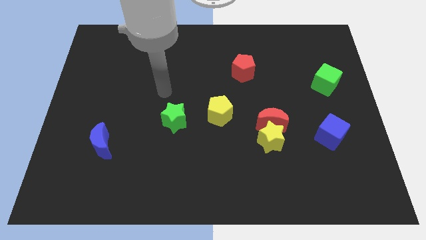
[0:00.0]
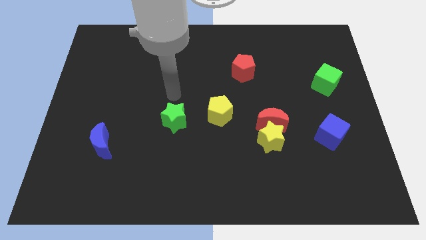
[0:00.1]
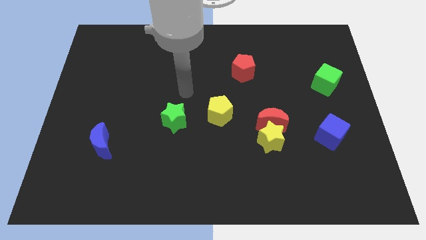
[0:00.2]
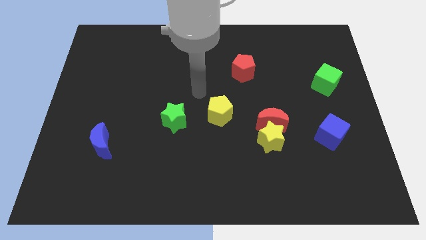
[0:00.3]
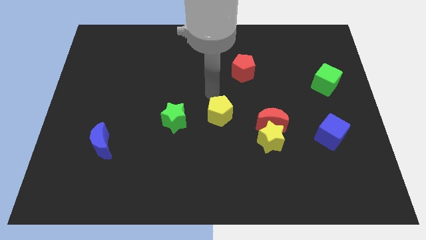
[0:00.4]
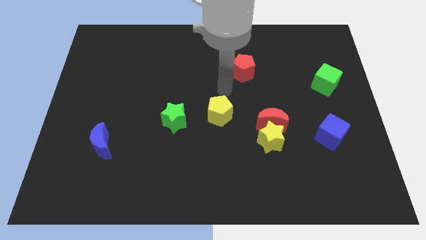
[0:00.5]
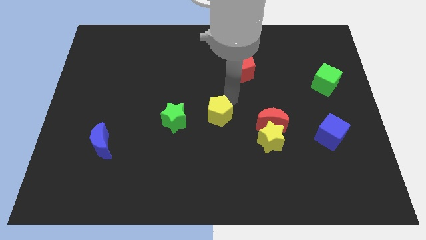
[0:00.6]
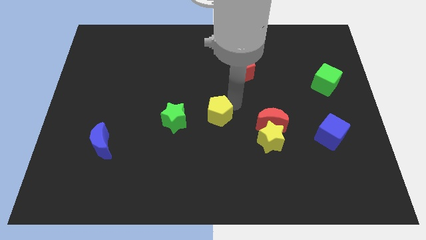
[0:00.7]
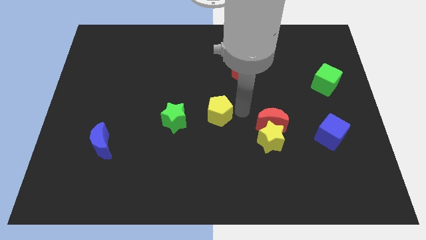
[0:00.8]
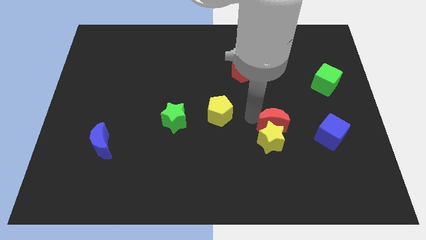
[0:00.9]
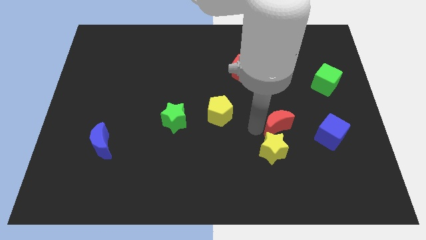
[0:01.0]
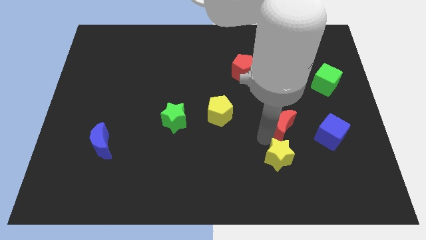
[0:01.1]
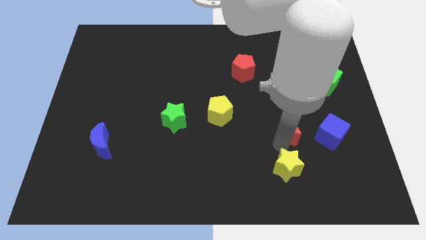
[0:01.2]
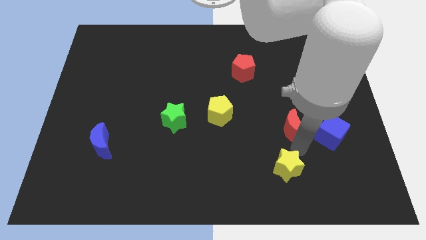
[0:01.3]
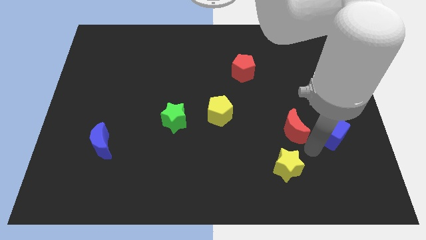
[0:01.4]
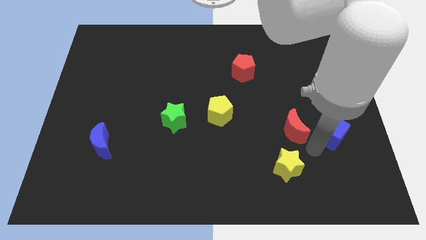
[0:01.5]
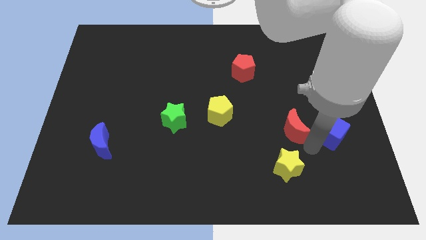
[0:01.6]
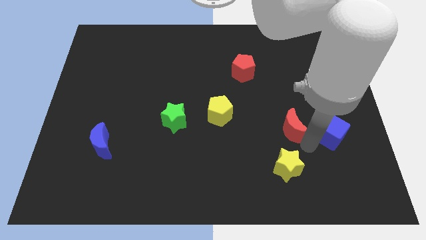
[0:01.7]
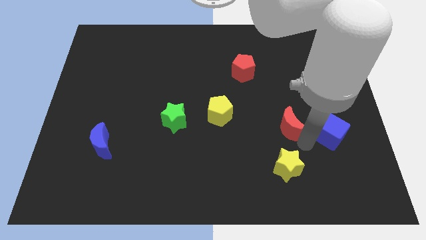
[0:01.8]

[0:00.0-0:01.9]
pull the red moon apart from the yellow star

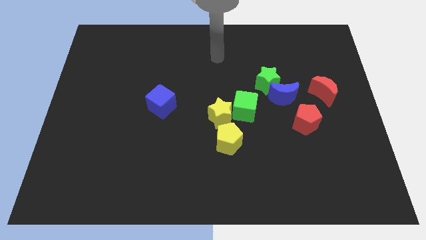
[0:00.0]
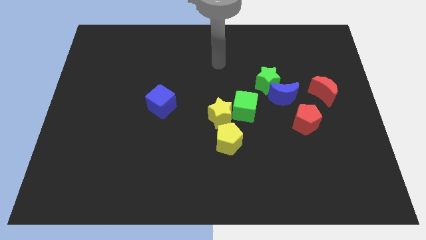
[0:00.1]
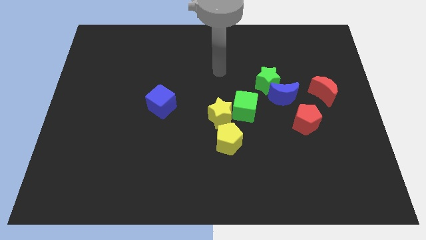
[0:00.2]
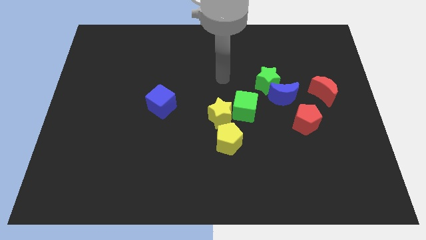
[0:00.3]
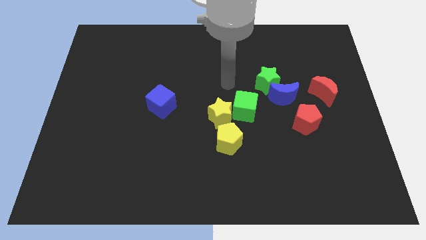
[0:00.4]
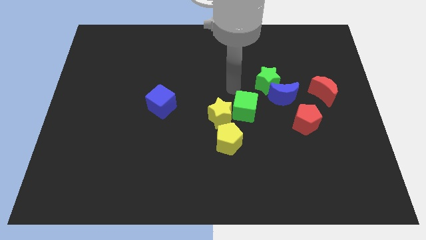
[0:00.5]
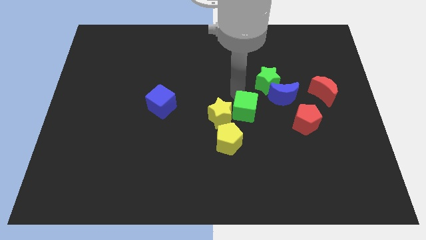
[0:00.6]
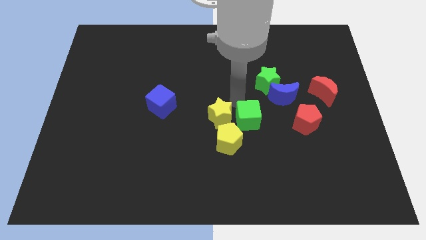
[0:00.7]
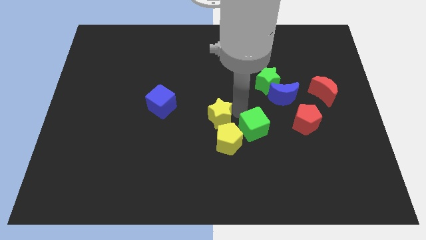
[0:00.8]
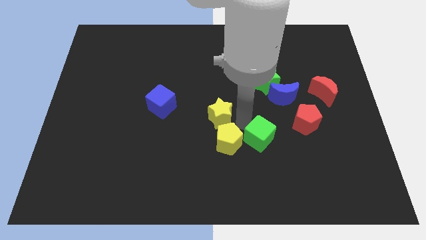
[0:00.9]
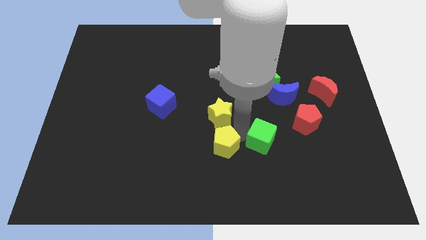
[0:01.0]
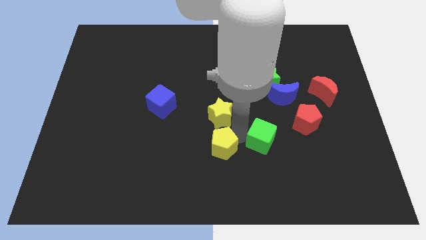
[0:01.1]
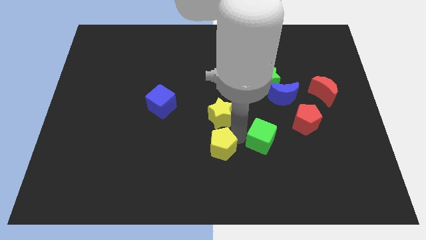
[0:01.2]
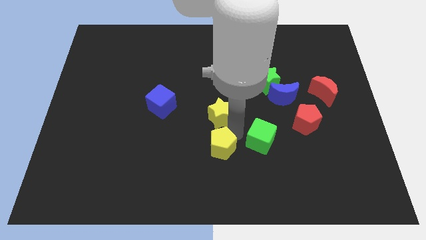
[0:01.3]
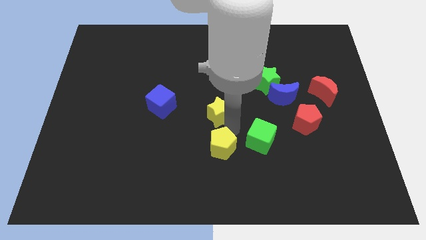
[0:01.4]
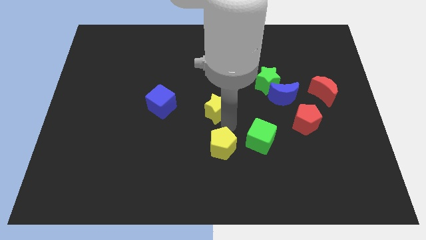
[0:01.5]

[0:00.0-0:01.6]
move the yellow star away from the green cube and yellow pentagon

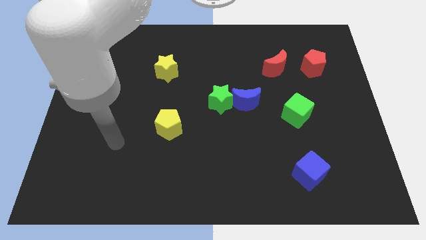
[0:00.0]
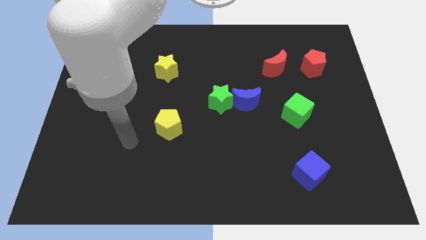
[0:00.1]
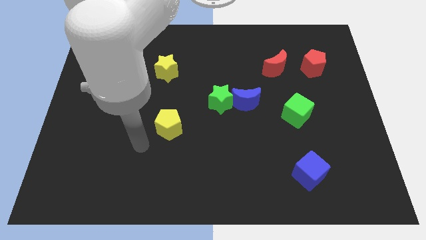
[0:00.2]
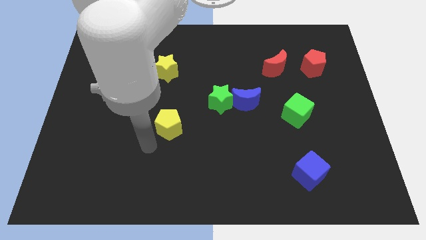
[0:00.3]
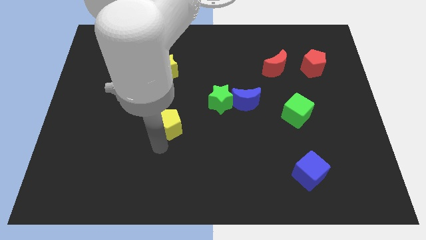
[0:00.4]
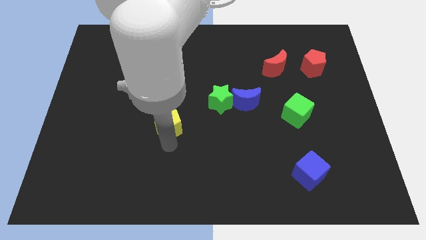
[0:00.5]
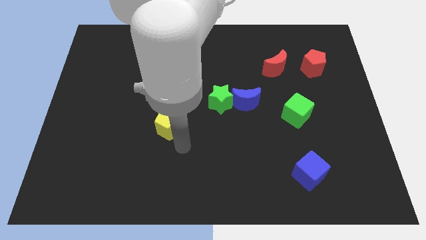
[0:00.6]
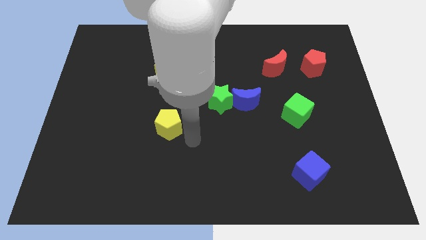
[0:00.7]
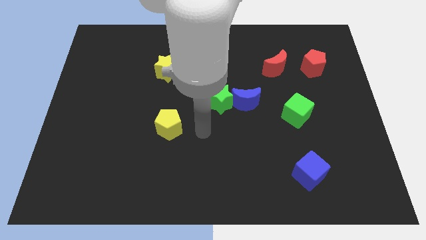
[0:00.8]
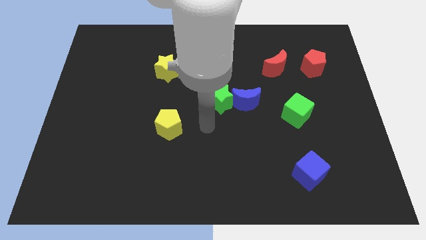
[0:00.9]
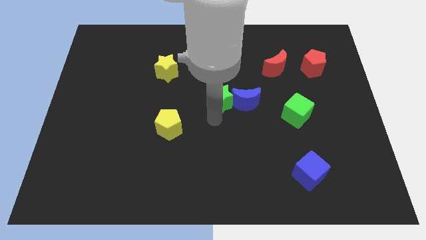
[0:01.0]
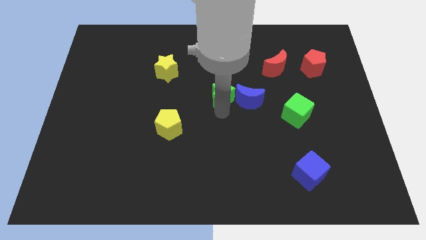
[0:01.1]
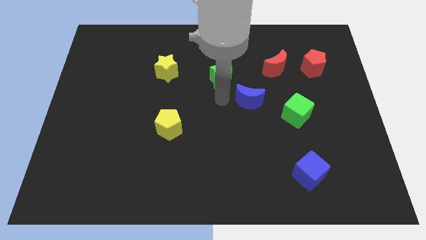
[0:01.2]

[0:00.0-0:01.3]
separate the blue moon from the green star

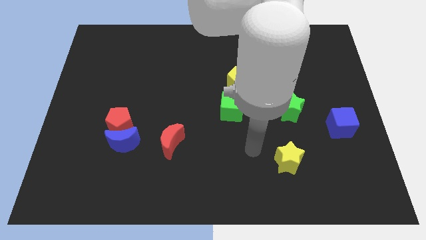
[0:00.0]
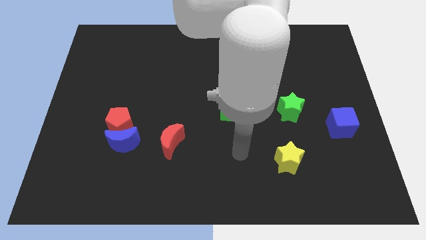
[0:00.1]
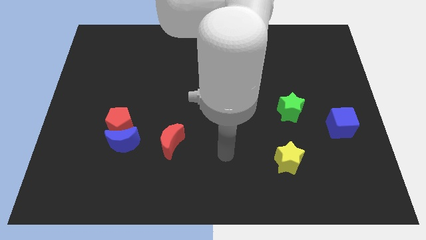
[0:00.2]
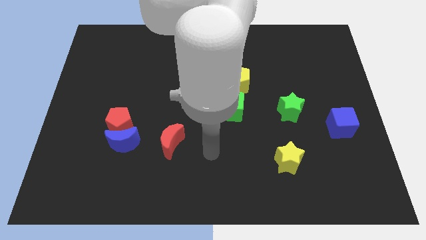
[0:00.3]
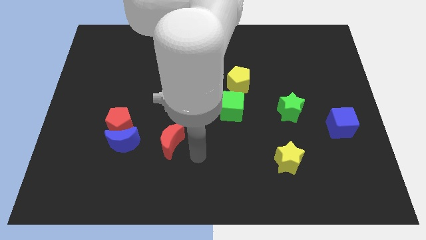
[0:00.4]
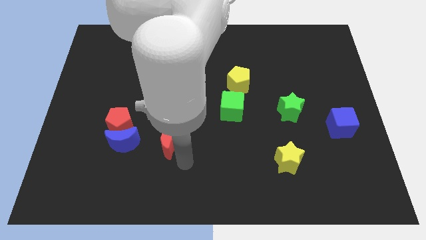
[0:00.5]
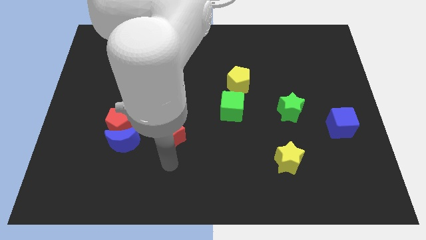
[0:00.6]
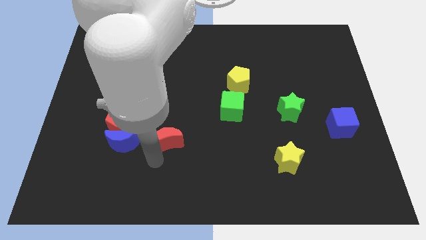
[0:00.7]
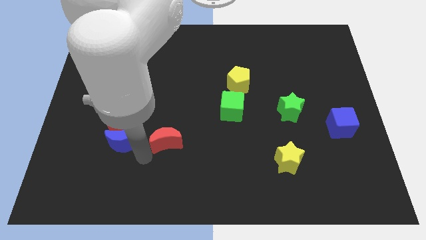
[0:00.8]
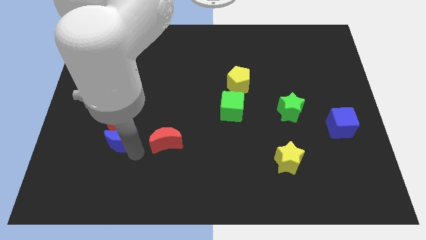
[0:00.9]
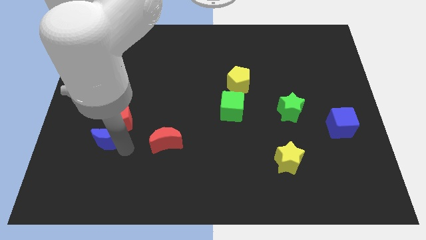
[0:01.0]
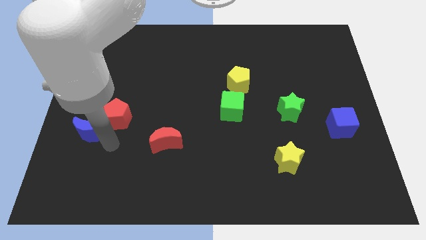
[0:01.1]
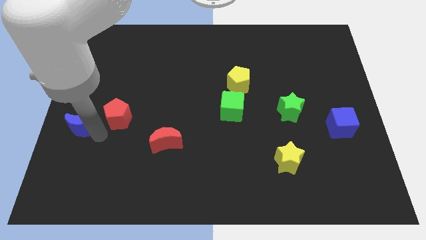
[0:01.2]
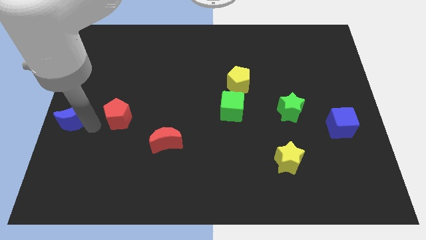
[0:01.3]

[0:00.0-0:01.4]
move the red pentagon away from the blue moon

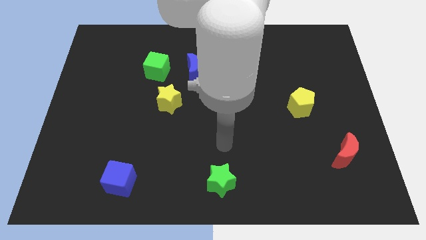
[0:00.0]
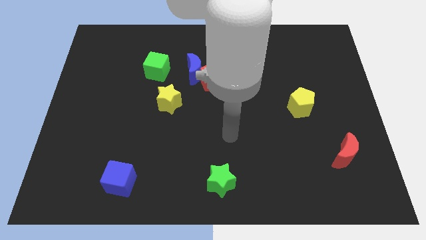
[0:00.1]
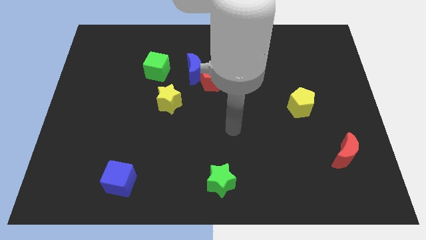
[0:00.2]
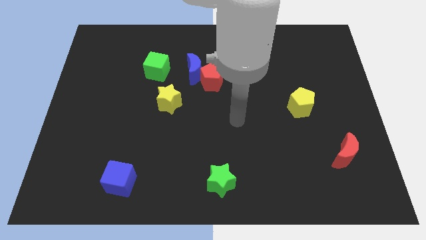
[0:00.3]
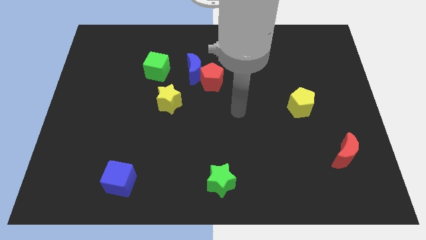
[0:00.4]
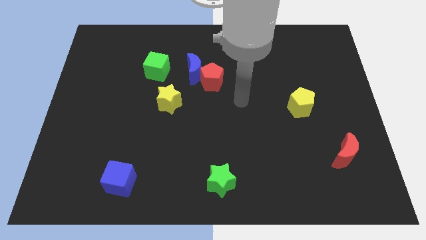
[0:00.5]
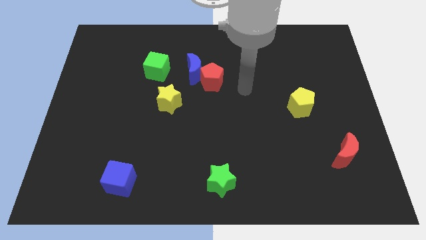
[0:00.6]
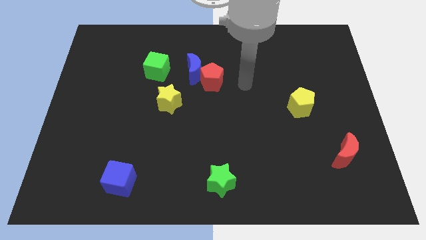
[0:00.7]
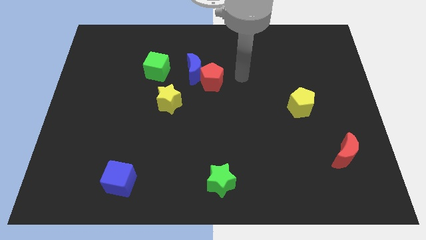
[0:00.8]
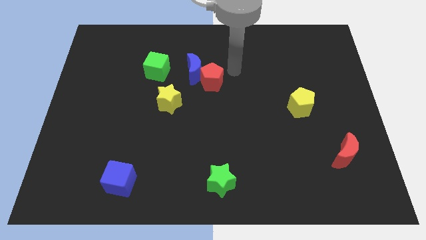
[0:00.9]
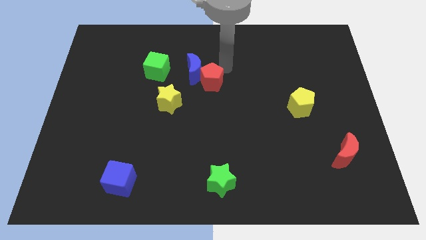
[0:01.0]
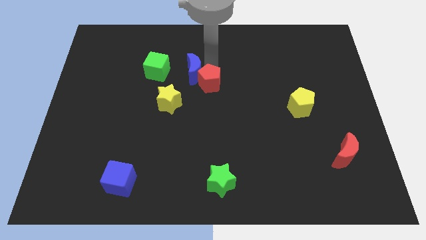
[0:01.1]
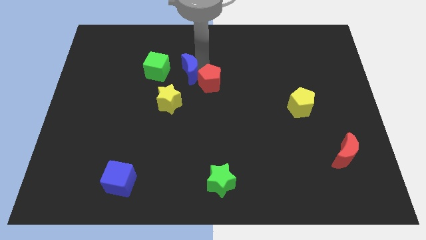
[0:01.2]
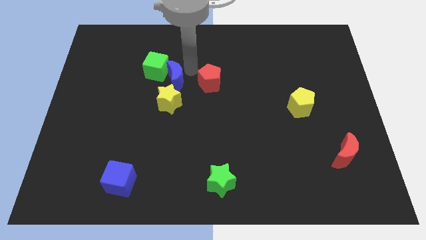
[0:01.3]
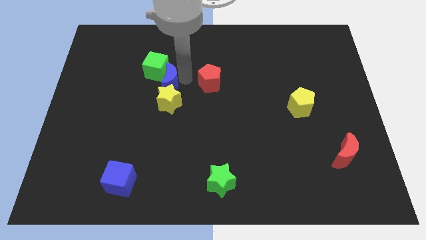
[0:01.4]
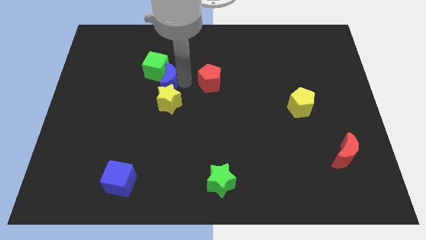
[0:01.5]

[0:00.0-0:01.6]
separate the red pentagon from the blue moon

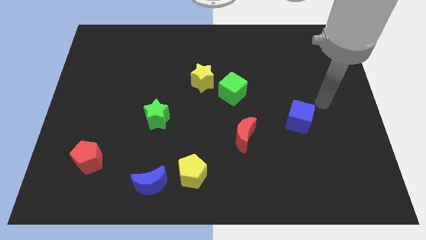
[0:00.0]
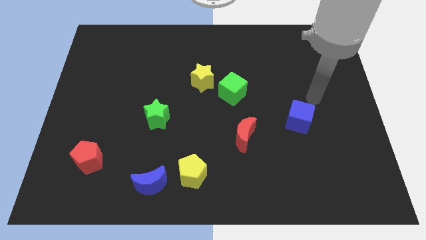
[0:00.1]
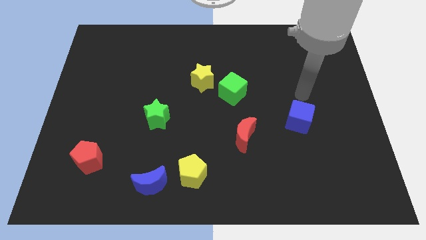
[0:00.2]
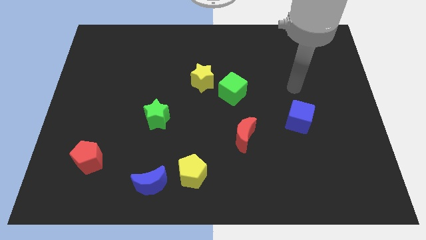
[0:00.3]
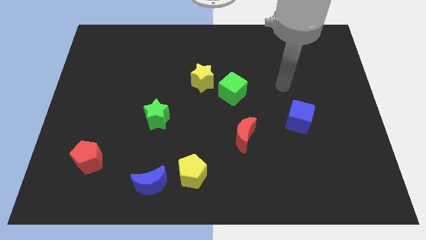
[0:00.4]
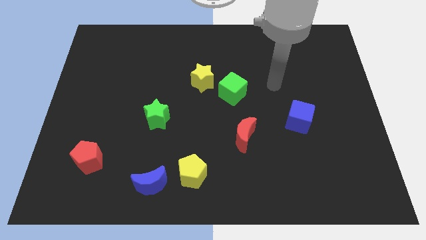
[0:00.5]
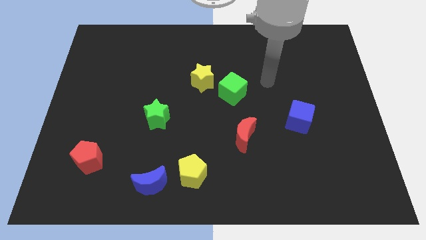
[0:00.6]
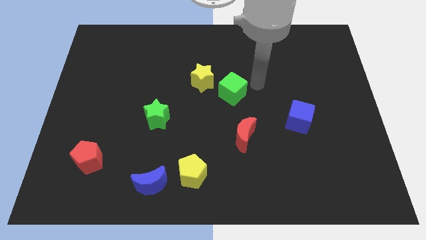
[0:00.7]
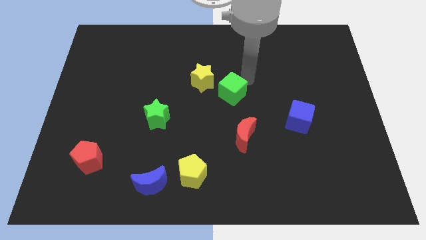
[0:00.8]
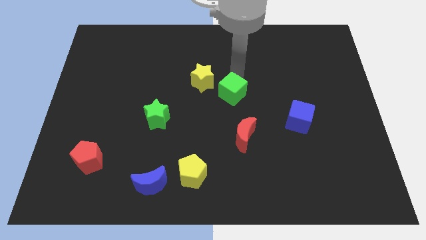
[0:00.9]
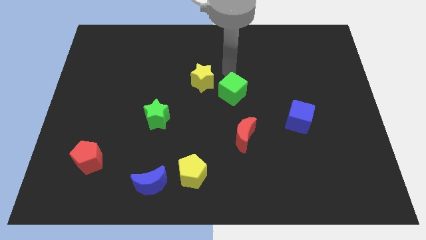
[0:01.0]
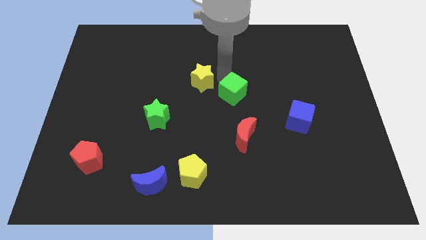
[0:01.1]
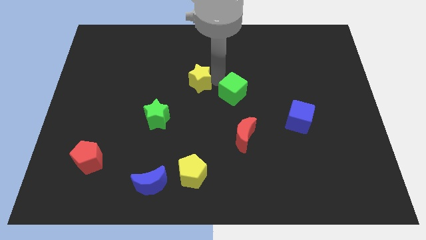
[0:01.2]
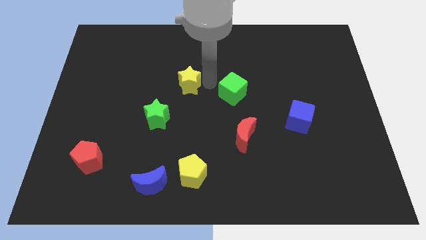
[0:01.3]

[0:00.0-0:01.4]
pull the green cube apart from the yellow star
